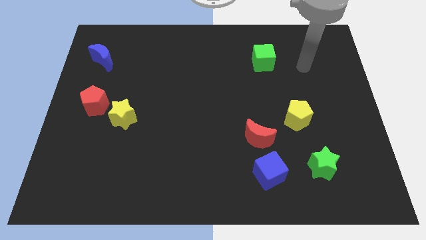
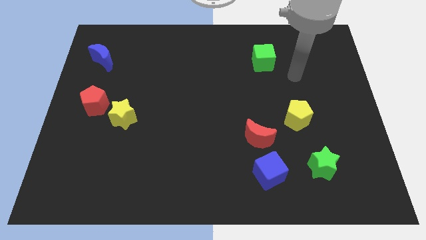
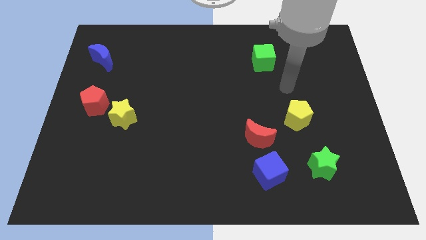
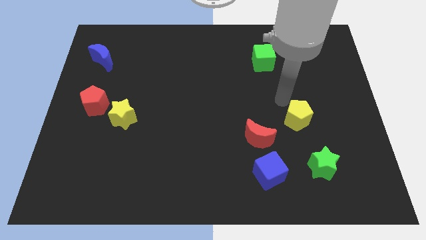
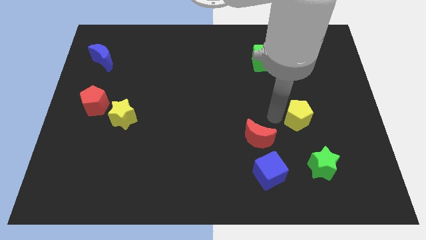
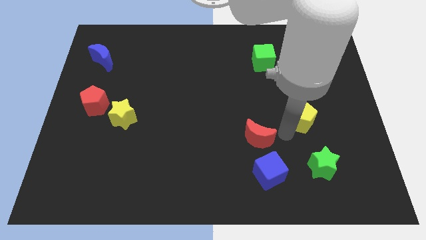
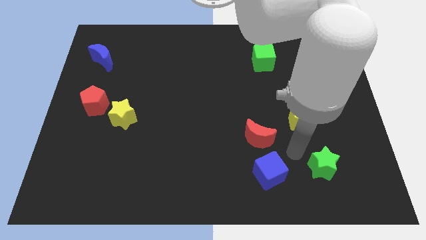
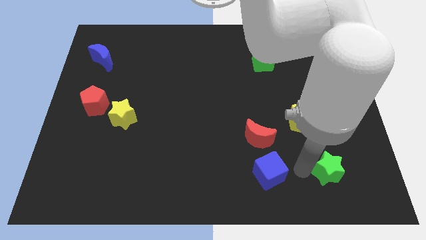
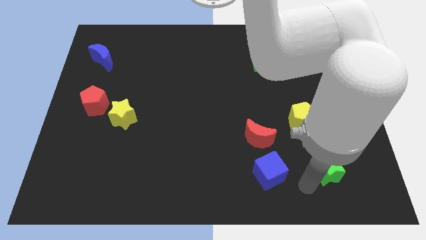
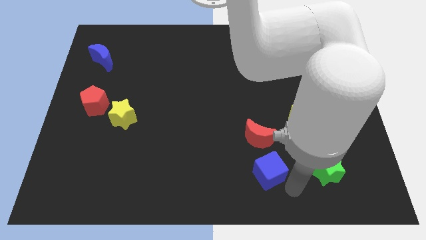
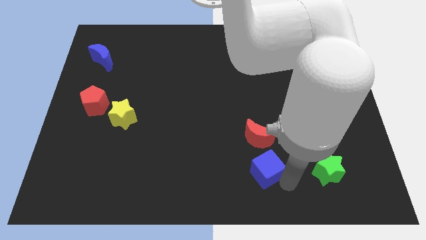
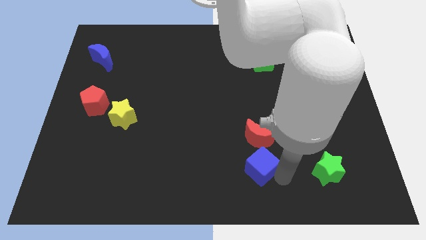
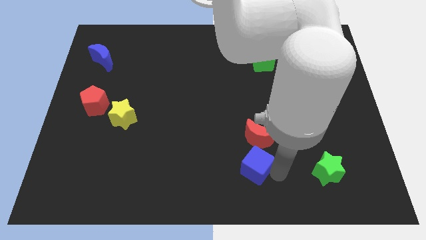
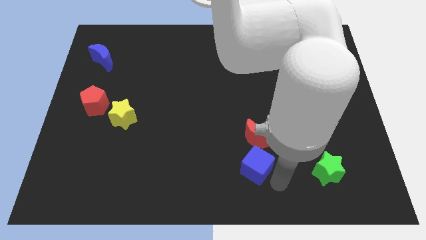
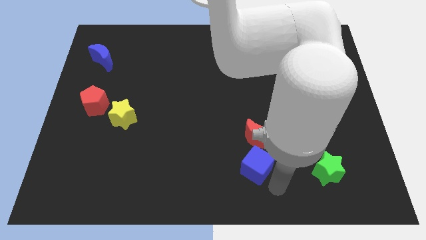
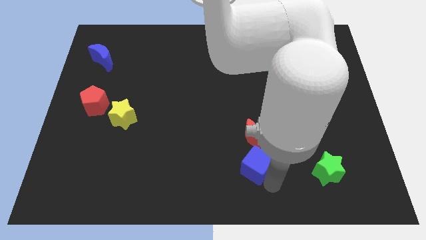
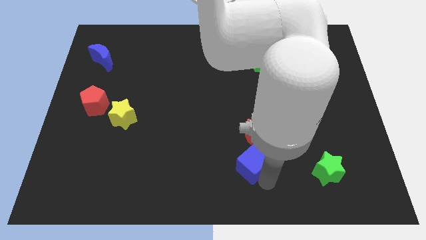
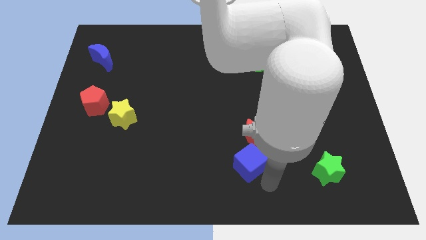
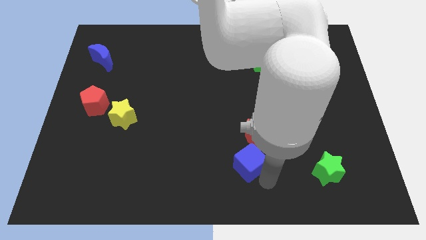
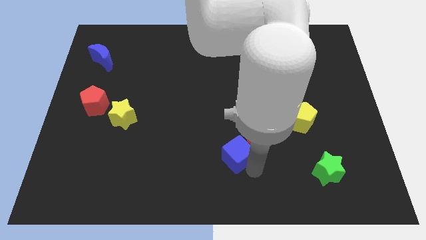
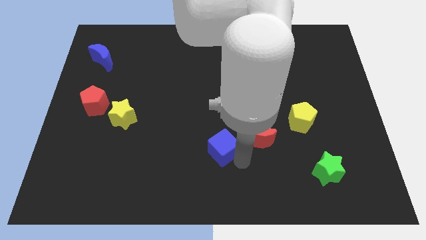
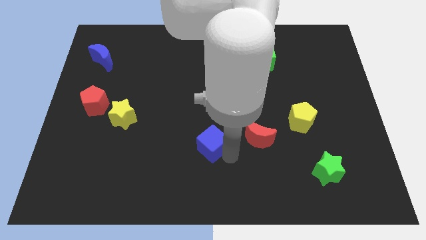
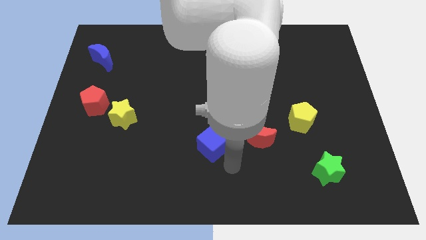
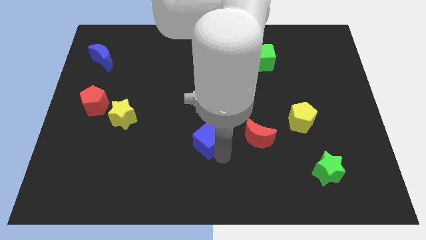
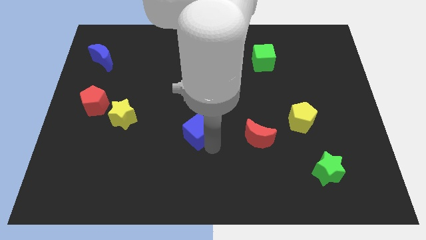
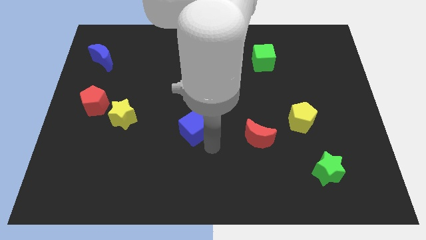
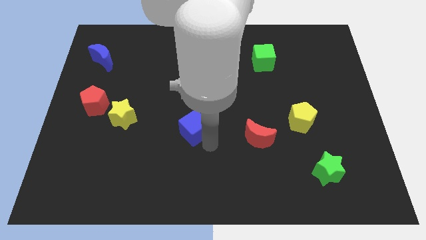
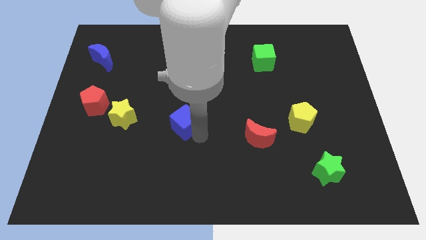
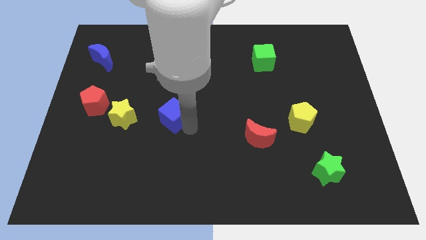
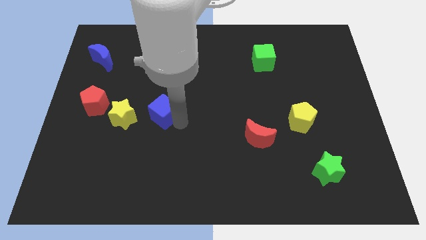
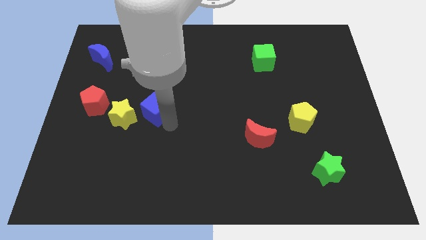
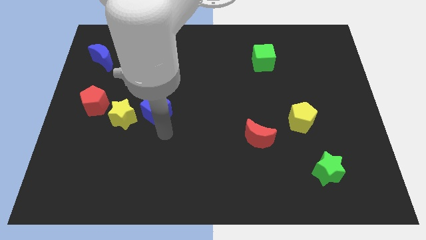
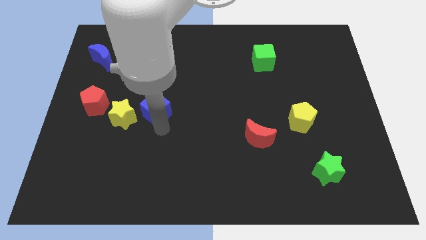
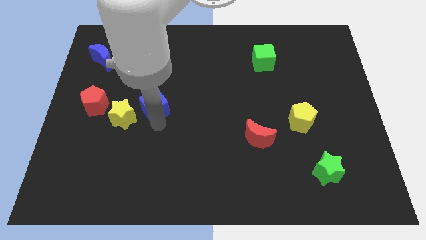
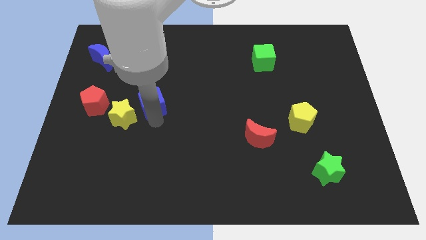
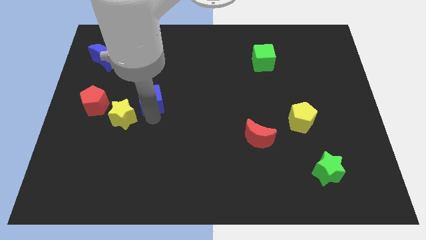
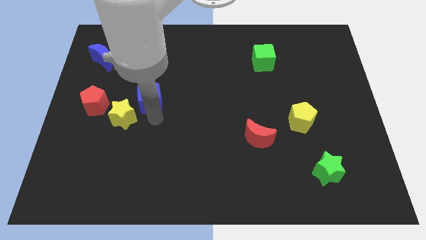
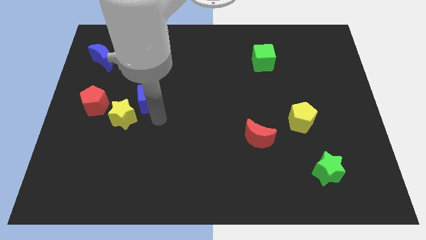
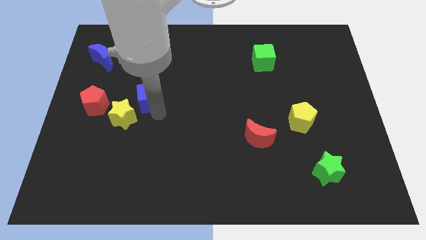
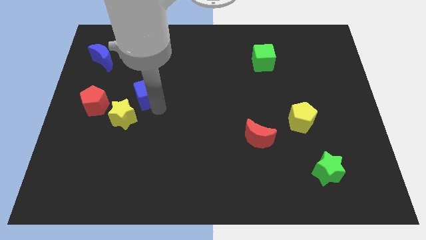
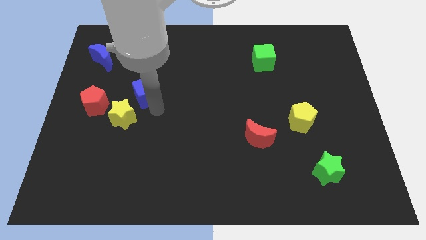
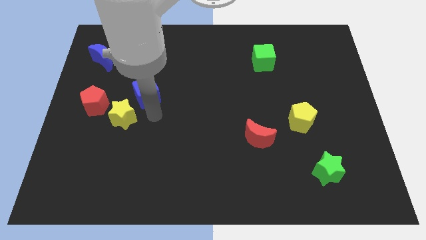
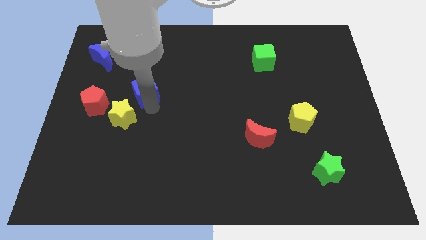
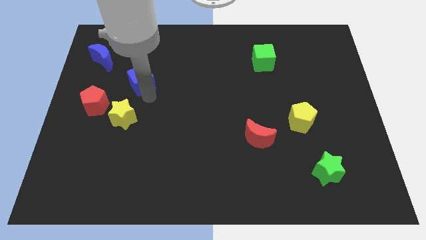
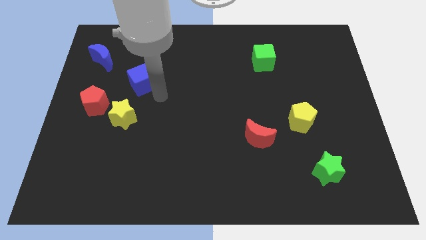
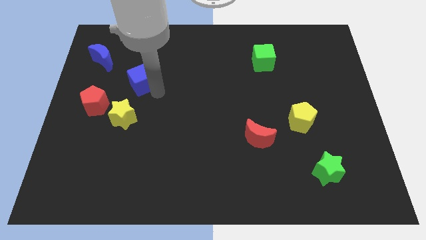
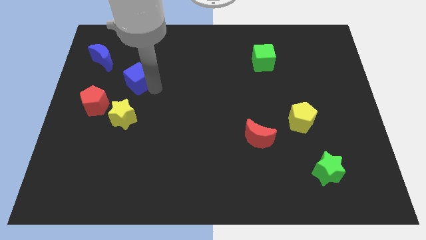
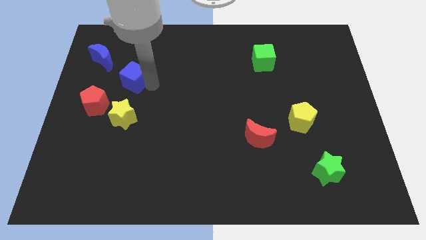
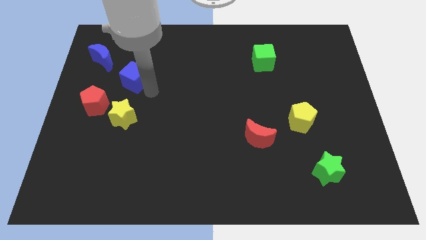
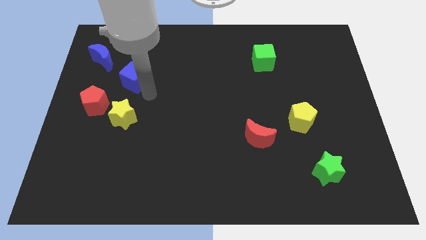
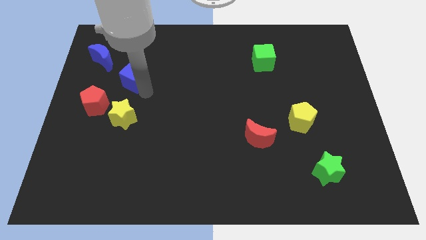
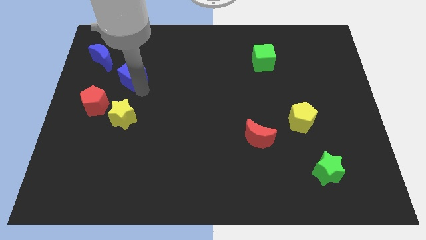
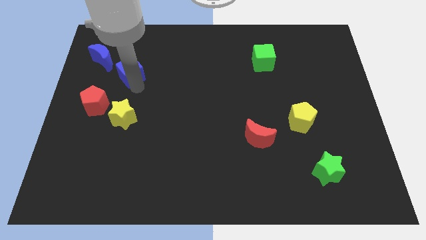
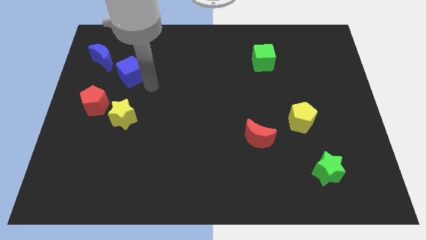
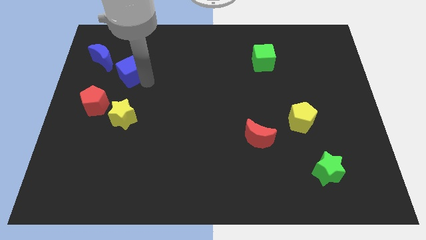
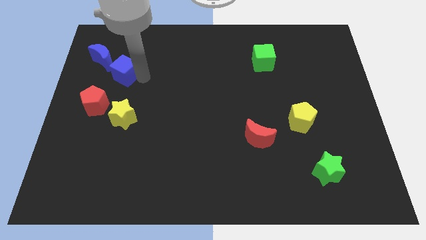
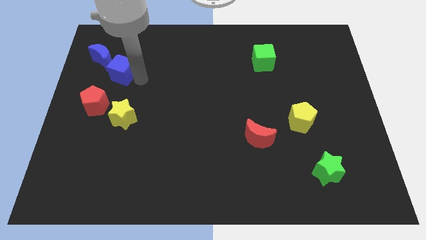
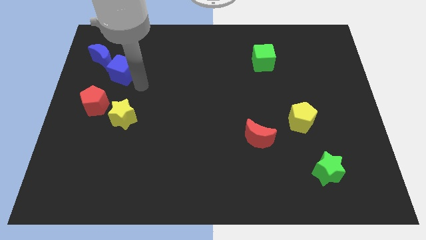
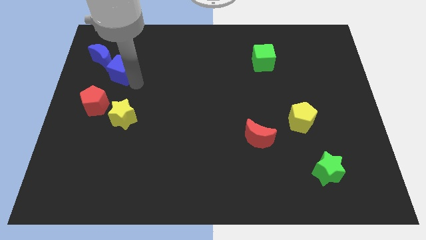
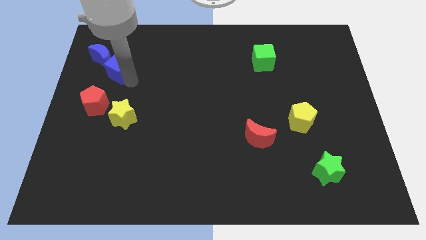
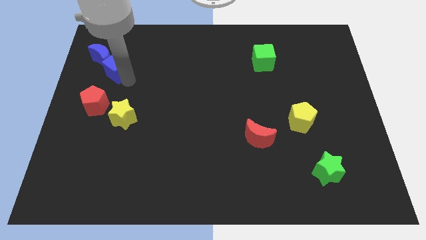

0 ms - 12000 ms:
push the blue cube close to the blue moon

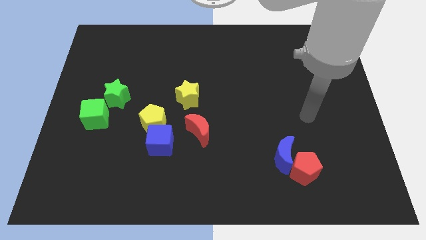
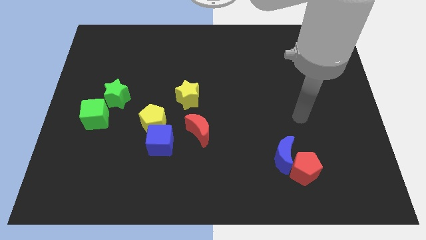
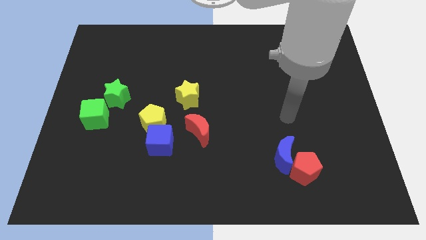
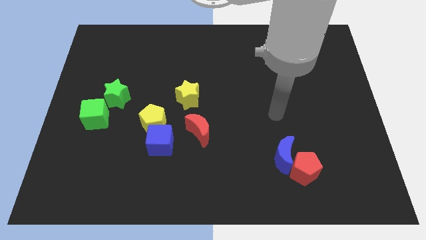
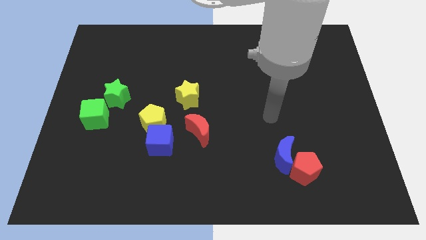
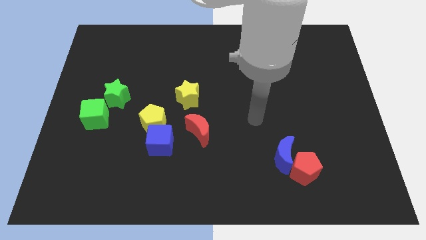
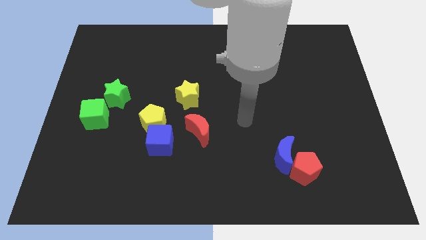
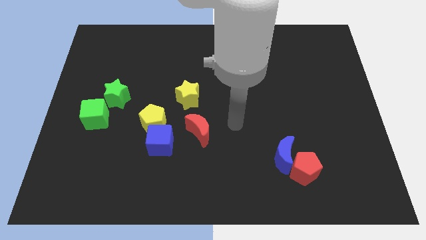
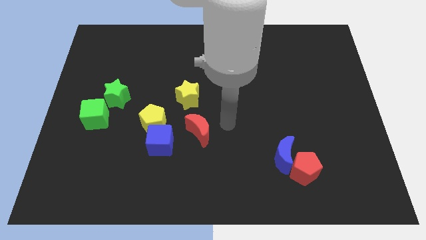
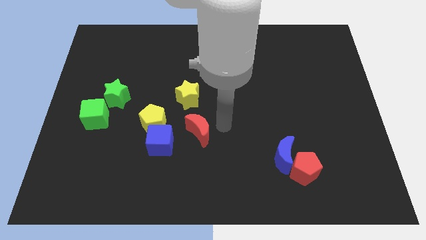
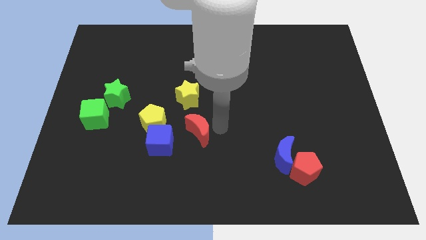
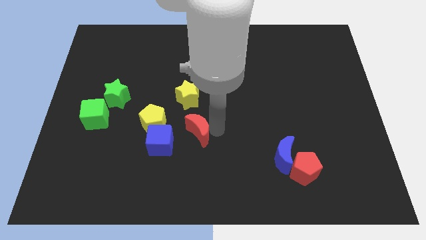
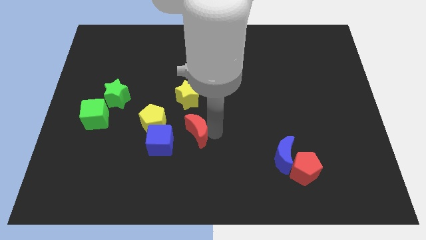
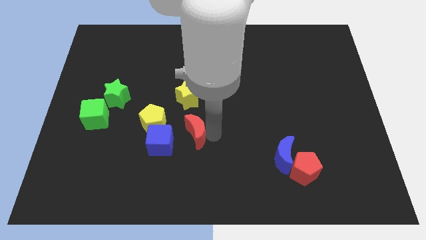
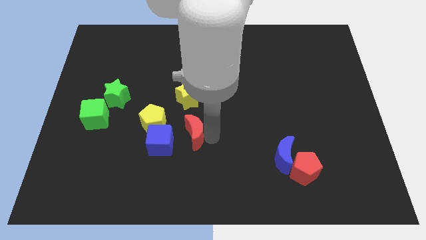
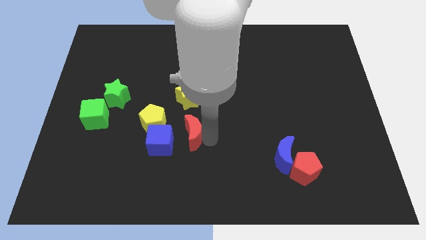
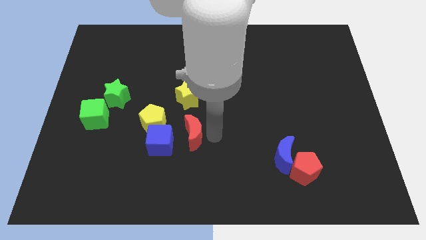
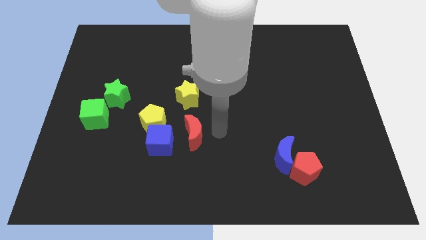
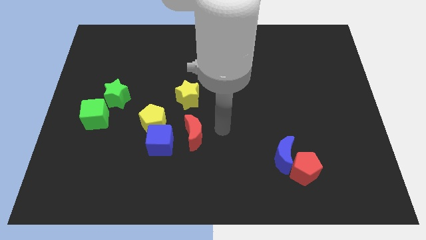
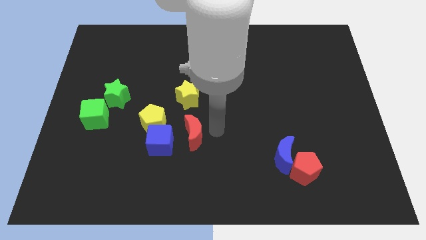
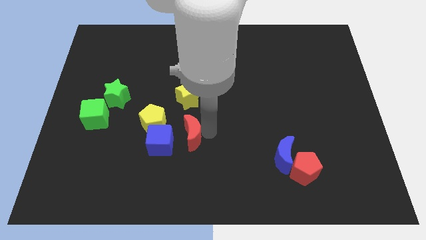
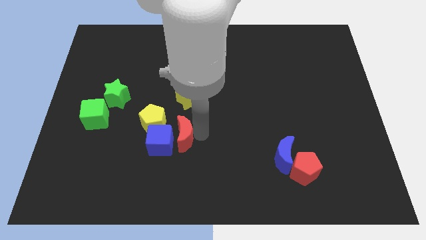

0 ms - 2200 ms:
slide the red moon towards the blue cube
